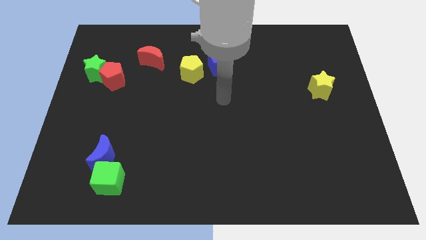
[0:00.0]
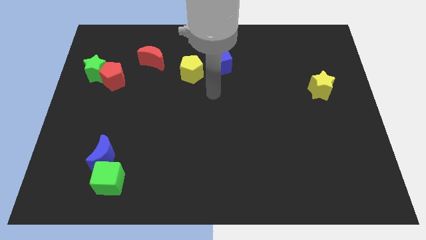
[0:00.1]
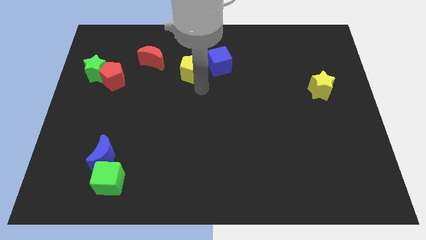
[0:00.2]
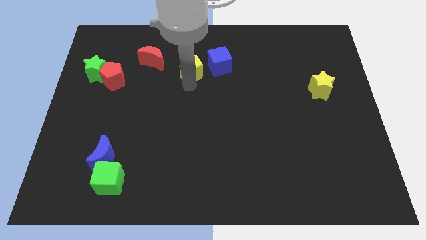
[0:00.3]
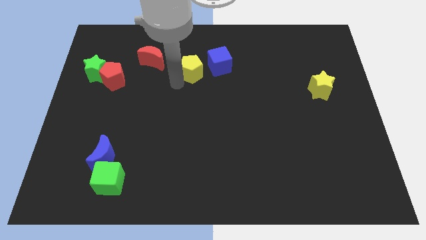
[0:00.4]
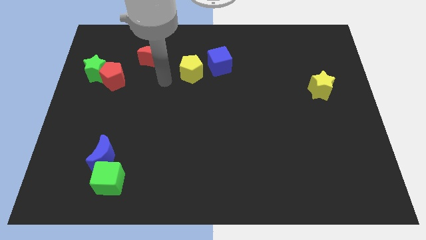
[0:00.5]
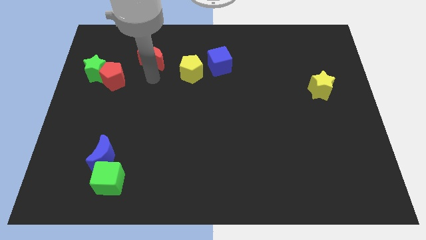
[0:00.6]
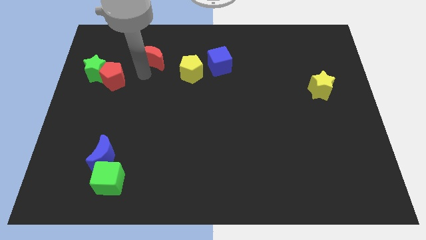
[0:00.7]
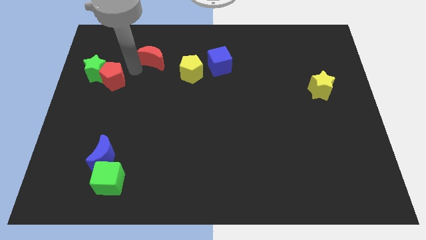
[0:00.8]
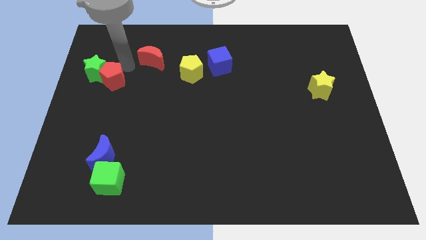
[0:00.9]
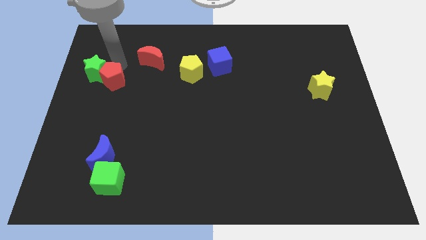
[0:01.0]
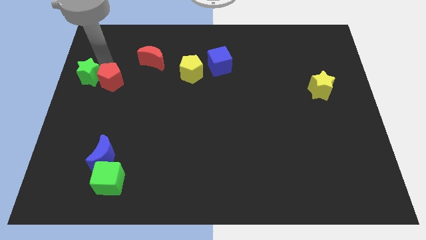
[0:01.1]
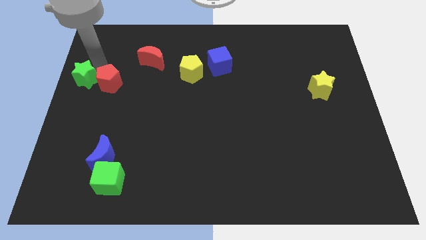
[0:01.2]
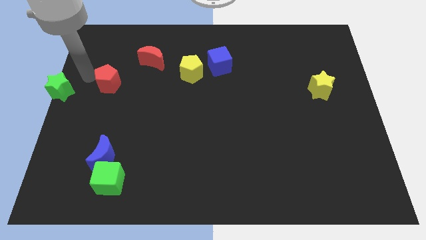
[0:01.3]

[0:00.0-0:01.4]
pull the red pentagon apart from the green star

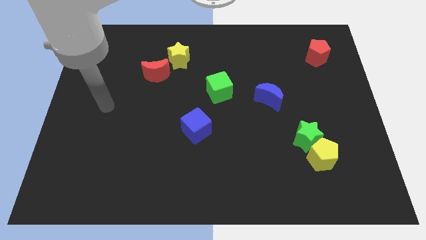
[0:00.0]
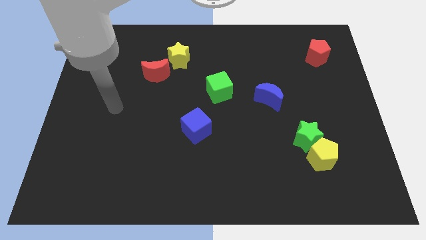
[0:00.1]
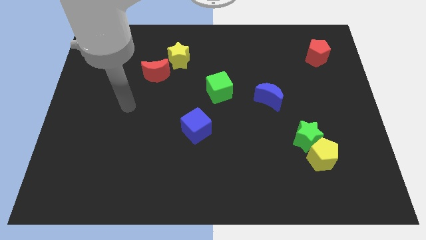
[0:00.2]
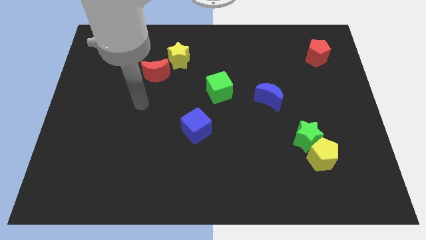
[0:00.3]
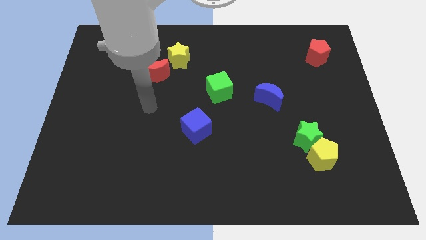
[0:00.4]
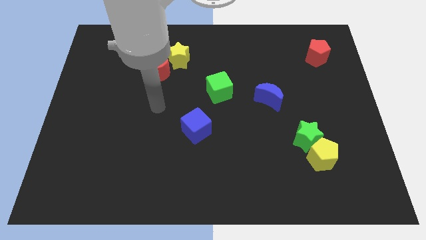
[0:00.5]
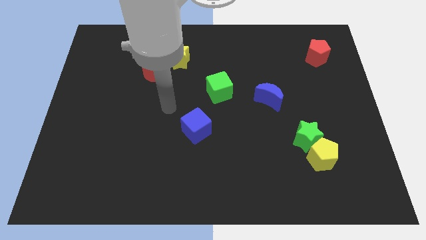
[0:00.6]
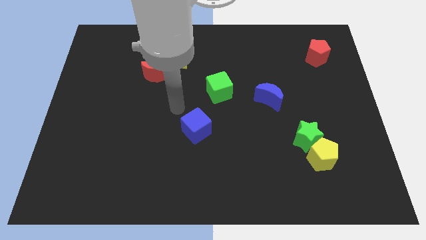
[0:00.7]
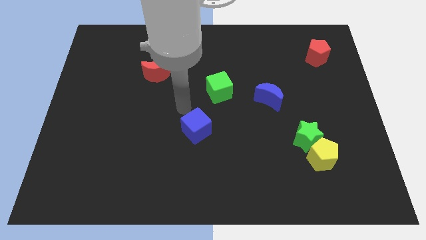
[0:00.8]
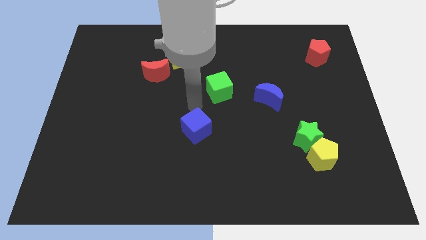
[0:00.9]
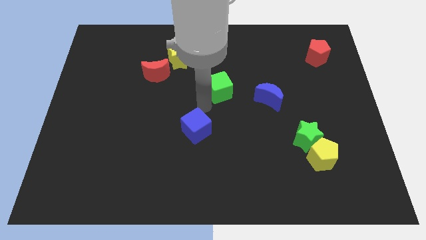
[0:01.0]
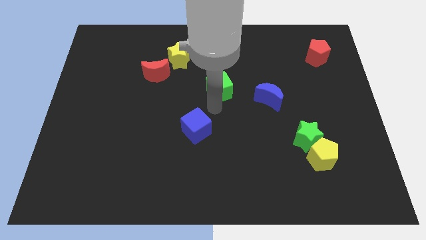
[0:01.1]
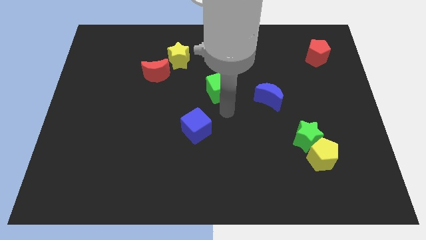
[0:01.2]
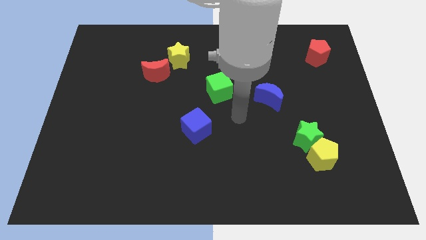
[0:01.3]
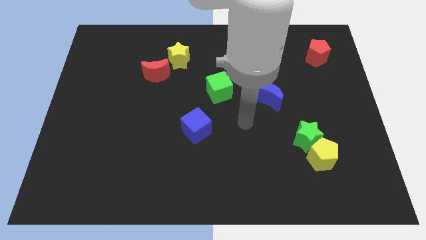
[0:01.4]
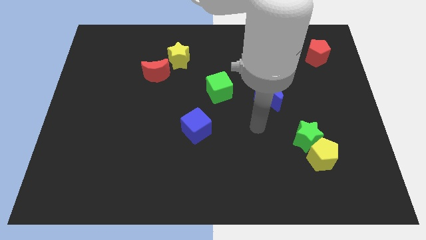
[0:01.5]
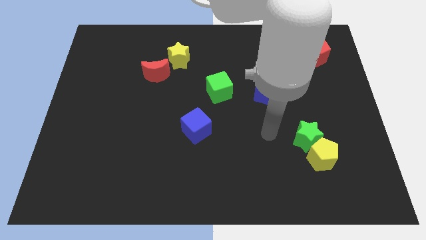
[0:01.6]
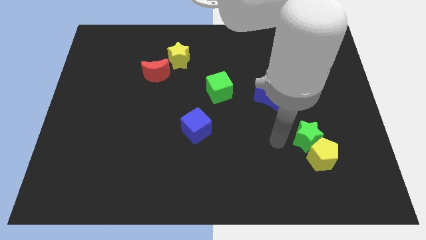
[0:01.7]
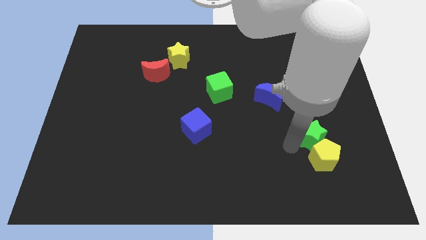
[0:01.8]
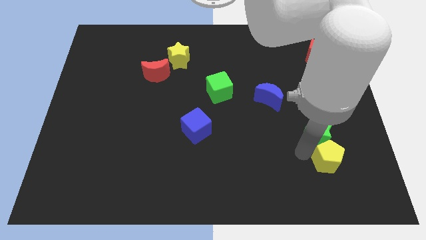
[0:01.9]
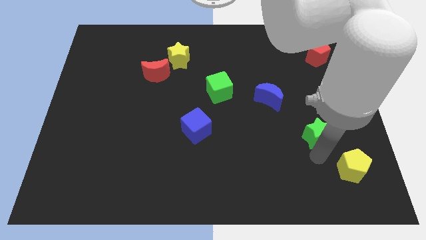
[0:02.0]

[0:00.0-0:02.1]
separate the green star from the yellow pentagon

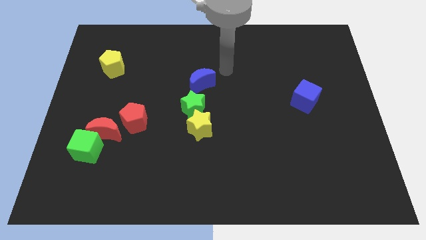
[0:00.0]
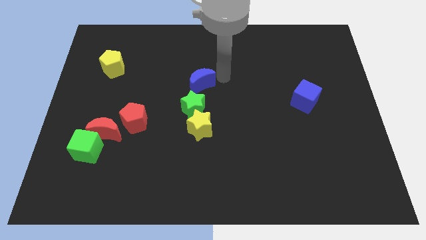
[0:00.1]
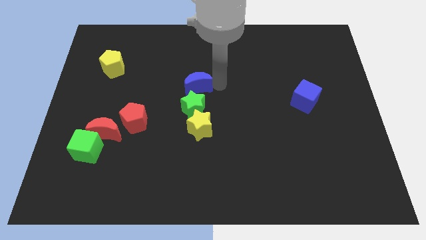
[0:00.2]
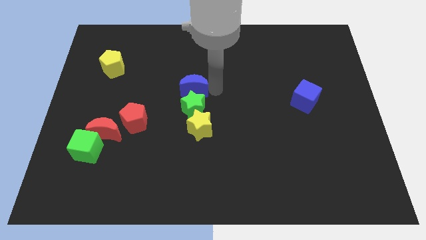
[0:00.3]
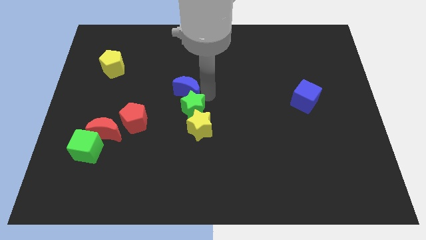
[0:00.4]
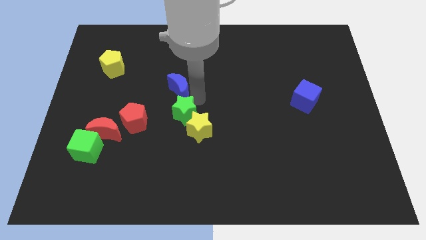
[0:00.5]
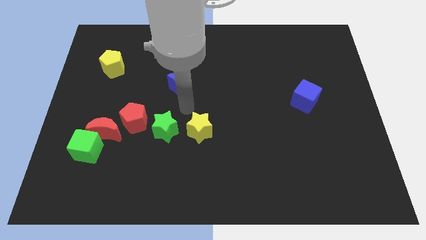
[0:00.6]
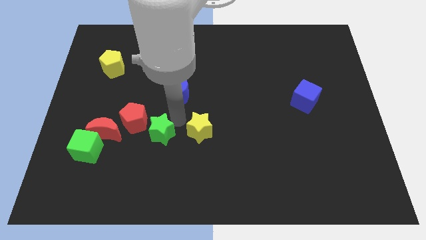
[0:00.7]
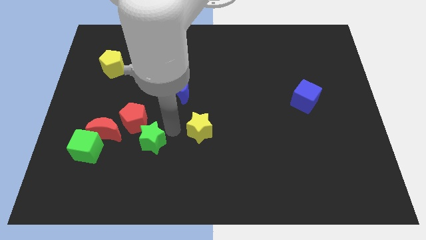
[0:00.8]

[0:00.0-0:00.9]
move the yellow star away from the green star

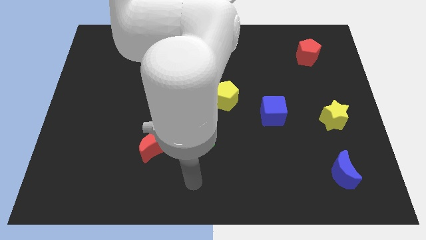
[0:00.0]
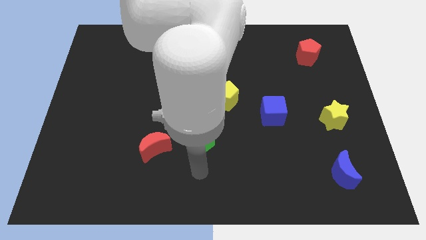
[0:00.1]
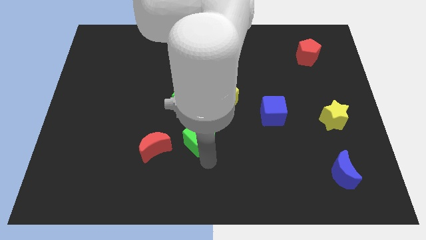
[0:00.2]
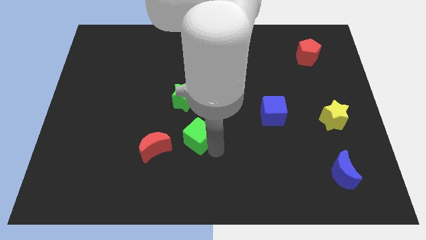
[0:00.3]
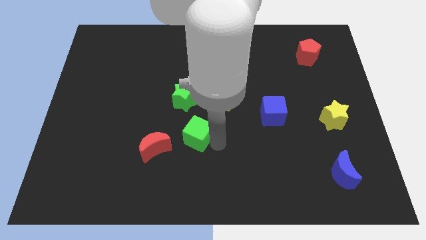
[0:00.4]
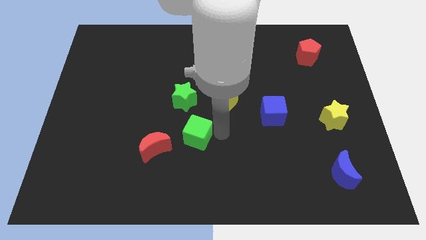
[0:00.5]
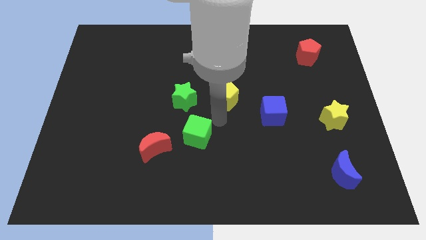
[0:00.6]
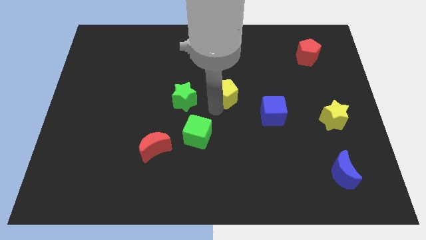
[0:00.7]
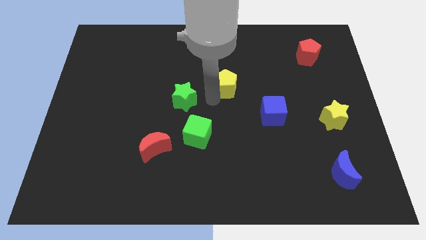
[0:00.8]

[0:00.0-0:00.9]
move the green star away from the yellow pentagon

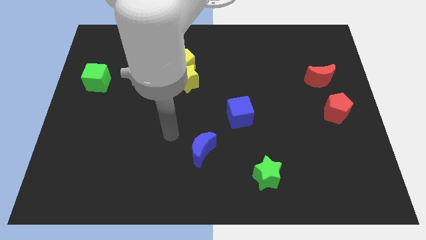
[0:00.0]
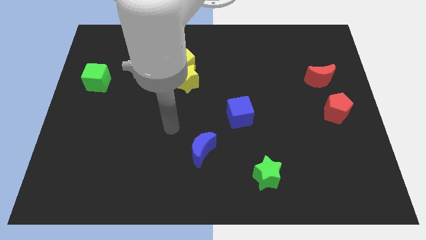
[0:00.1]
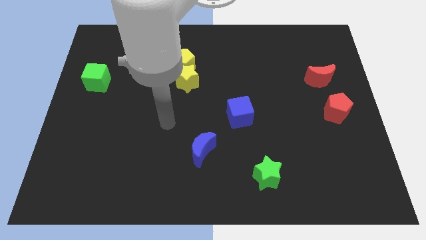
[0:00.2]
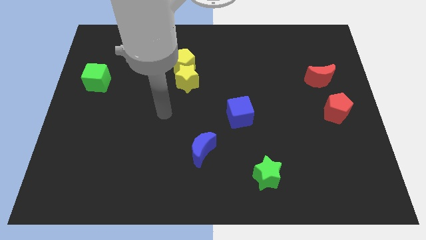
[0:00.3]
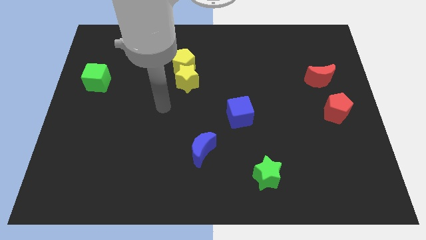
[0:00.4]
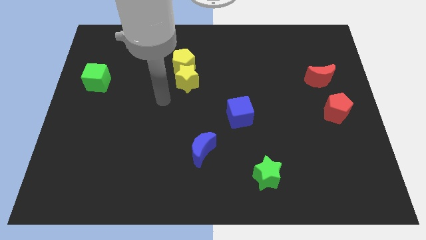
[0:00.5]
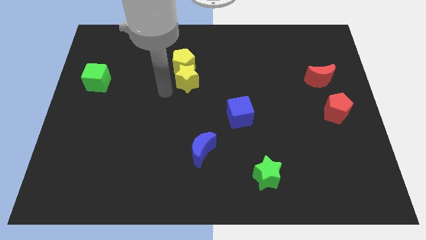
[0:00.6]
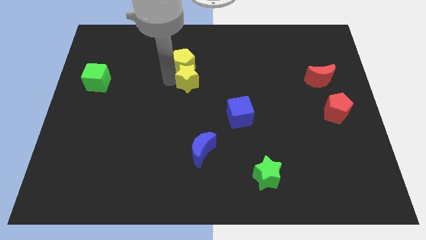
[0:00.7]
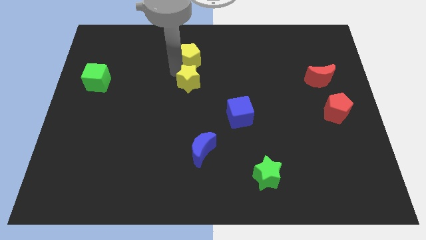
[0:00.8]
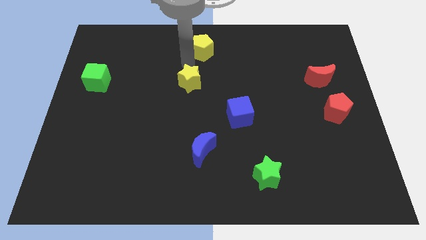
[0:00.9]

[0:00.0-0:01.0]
pull the yellow star apart from the yellow pentagon

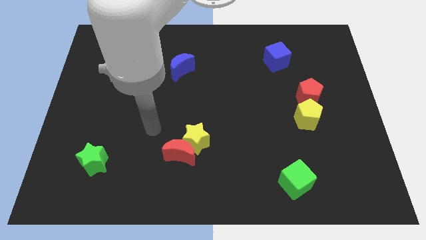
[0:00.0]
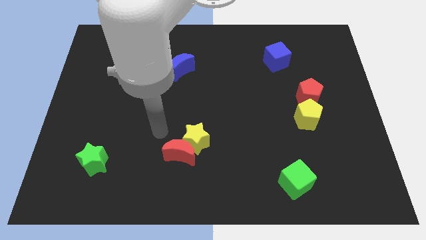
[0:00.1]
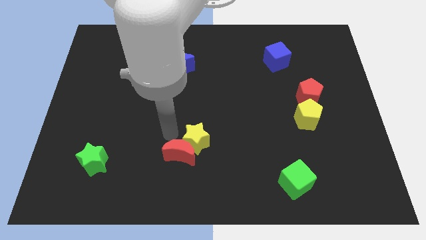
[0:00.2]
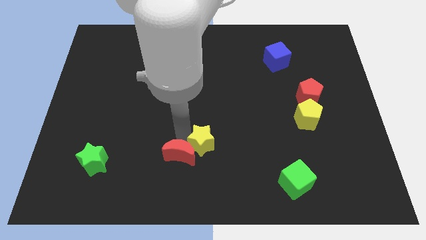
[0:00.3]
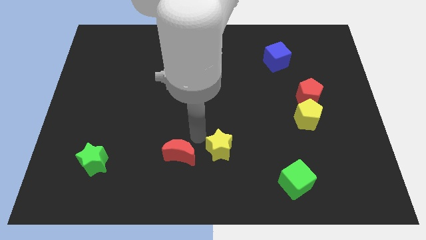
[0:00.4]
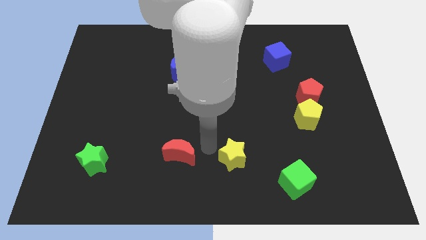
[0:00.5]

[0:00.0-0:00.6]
pull the red moon apart from the yellow star

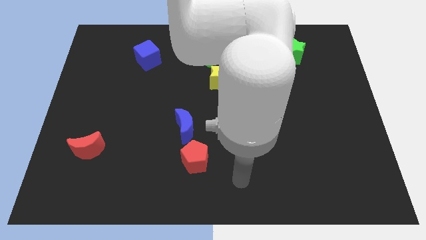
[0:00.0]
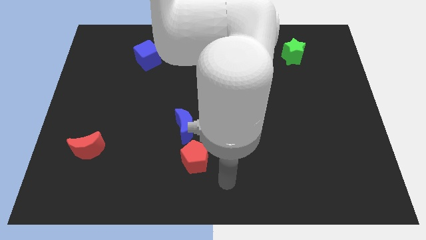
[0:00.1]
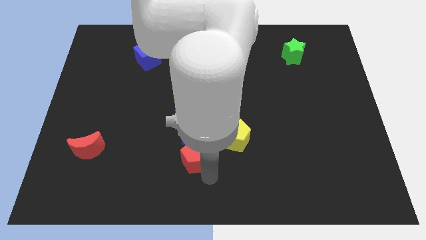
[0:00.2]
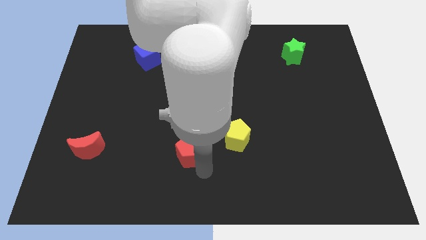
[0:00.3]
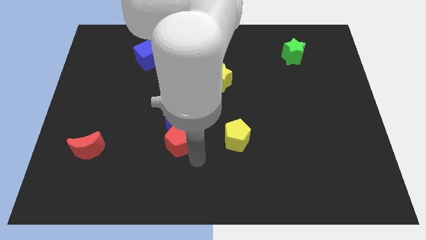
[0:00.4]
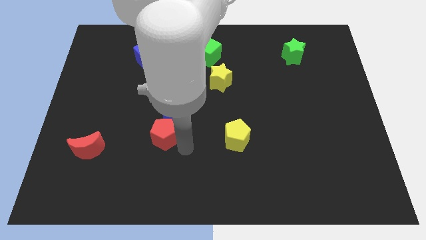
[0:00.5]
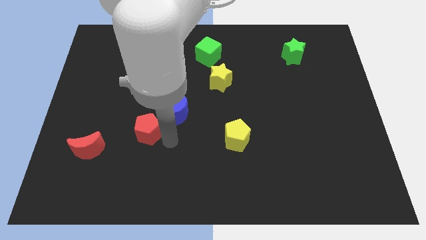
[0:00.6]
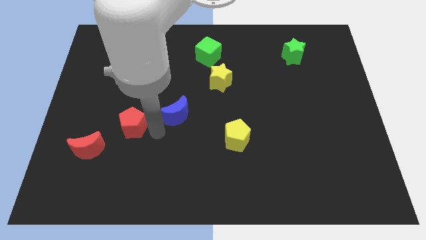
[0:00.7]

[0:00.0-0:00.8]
move the blue moon away from the red pentagon

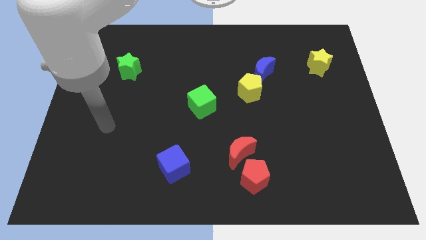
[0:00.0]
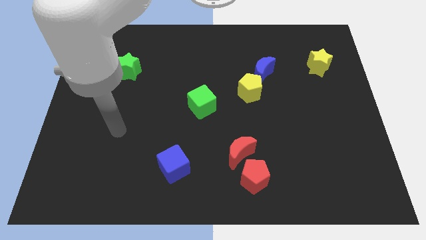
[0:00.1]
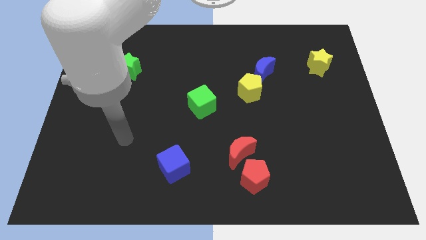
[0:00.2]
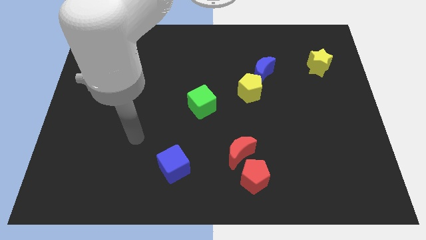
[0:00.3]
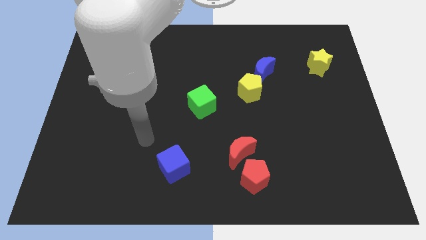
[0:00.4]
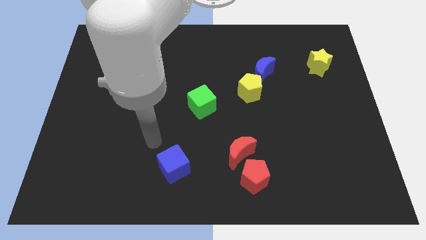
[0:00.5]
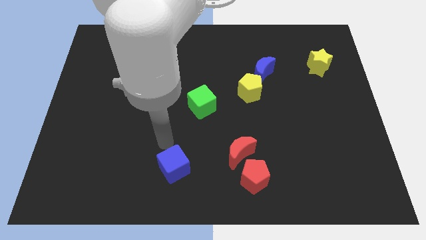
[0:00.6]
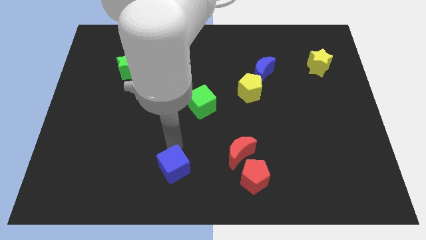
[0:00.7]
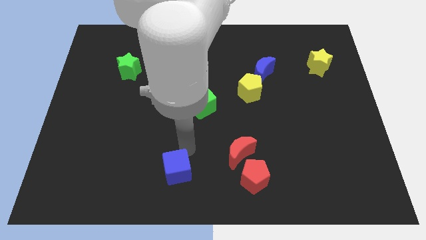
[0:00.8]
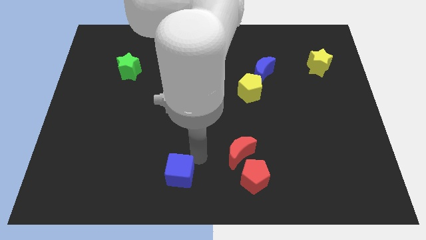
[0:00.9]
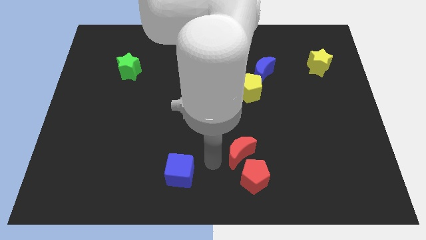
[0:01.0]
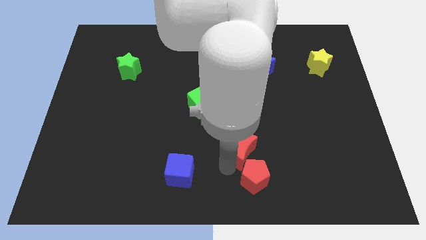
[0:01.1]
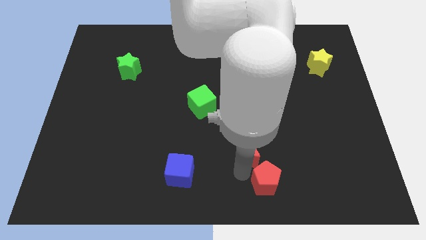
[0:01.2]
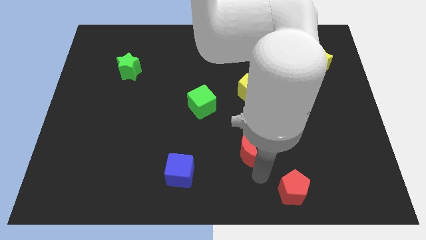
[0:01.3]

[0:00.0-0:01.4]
pull the red moon apart from the red pentagon

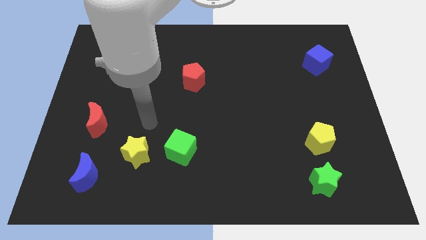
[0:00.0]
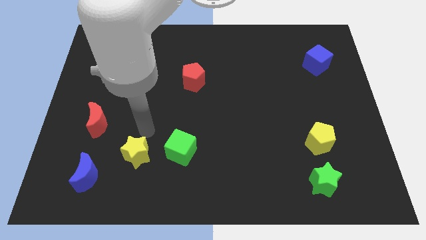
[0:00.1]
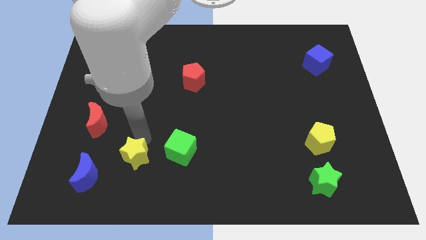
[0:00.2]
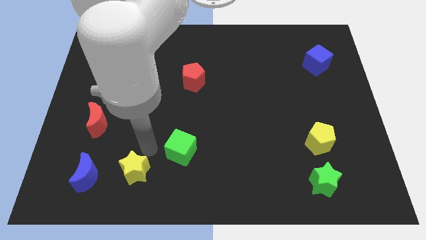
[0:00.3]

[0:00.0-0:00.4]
move the green cube away from the yellow star
